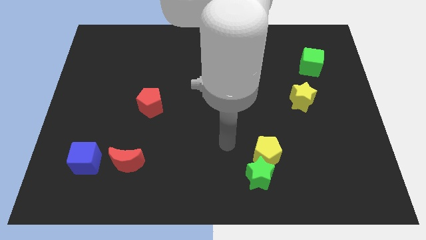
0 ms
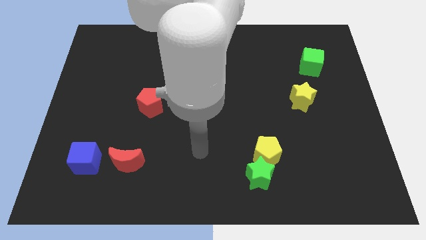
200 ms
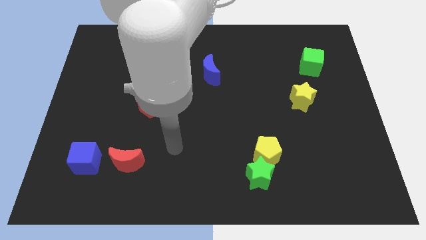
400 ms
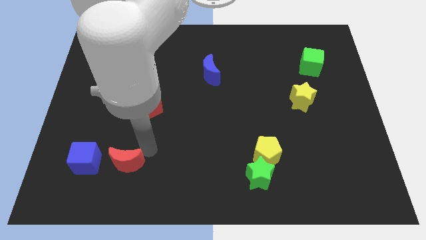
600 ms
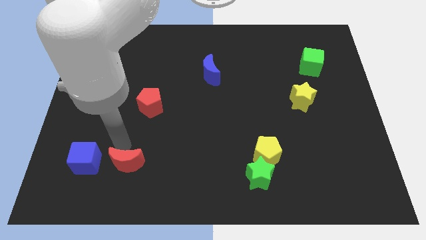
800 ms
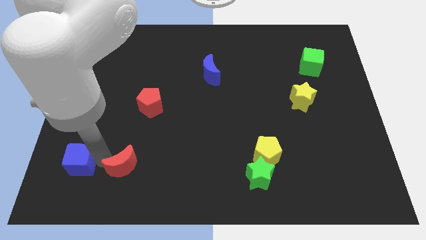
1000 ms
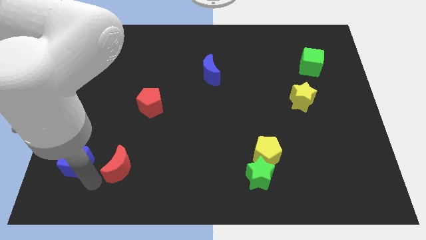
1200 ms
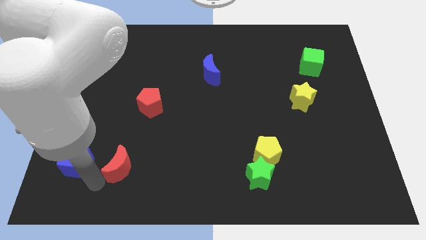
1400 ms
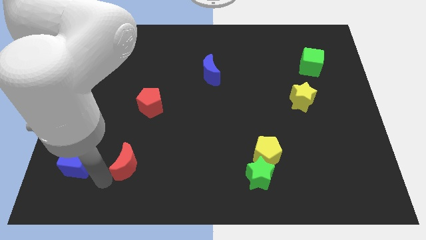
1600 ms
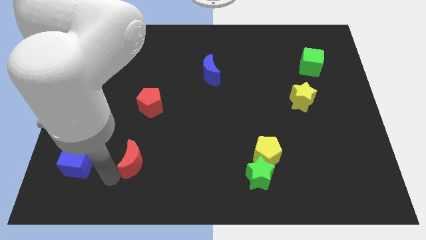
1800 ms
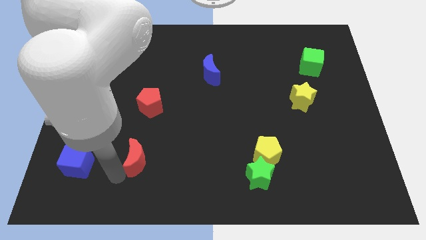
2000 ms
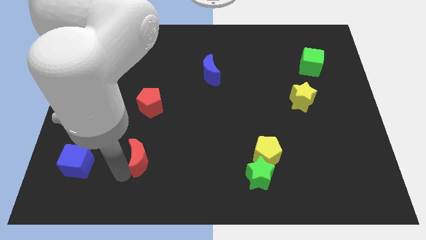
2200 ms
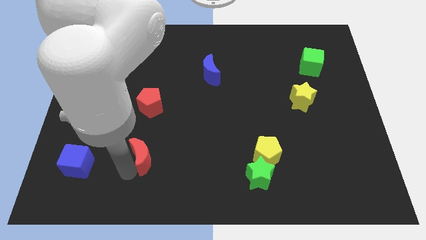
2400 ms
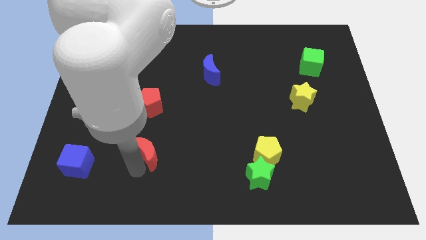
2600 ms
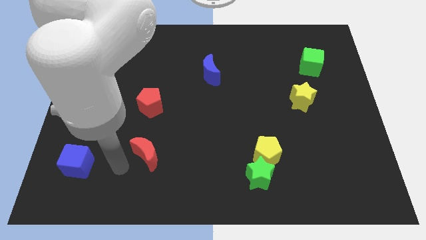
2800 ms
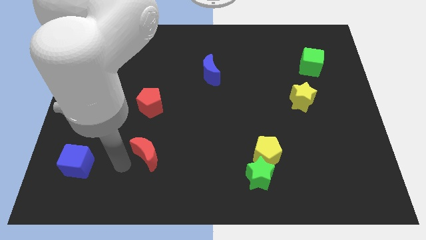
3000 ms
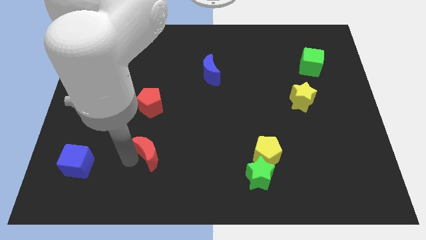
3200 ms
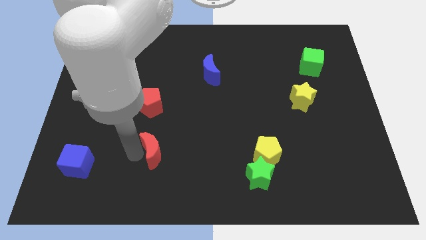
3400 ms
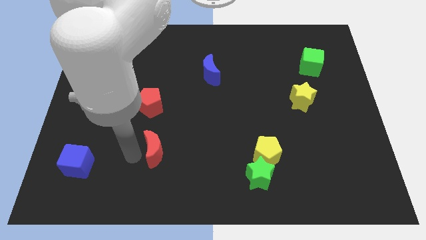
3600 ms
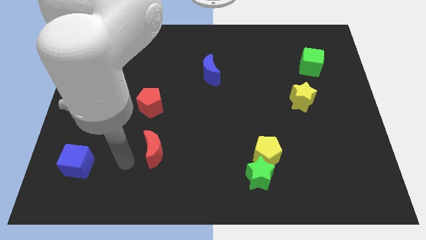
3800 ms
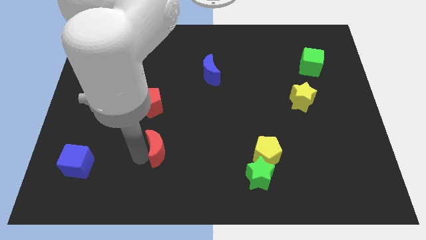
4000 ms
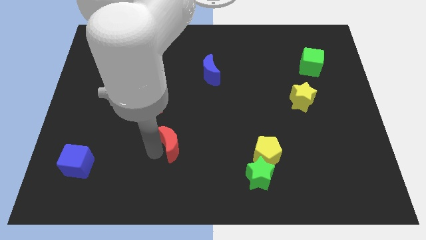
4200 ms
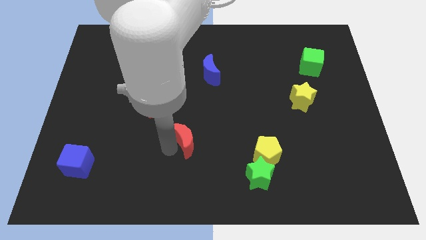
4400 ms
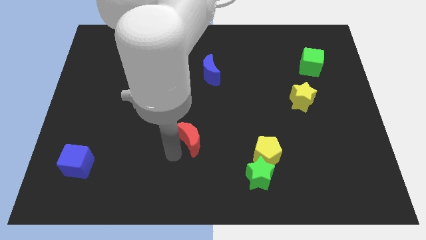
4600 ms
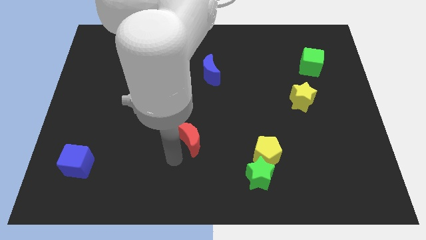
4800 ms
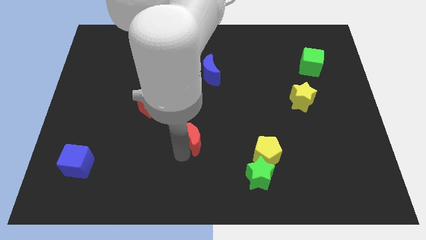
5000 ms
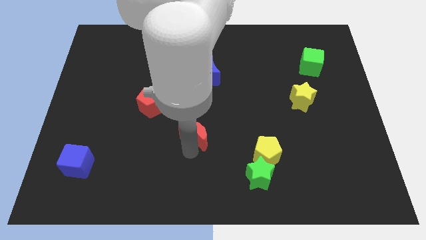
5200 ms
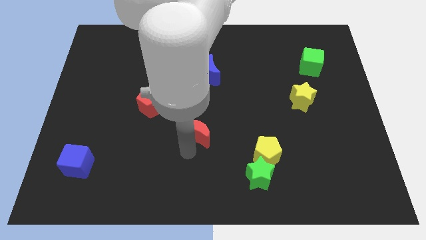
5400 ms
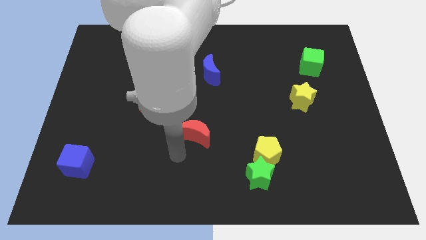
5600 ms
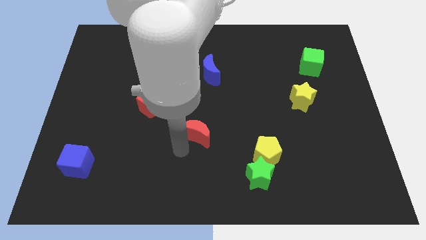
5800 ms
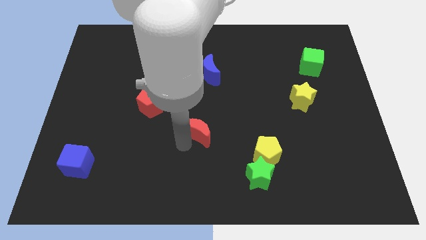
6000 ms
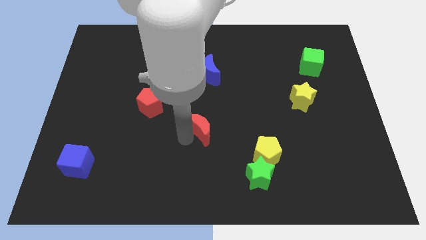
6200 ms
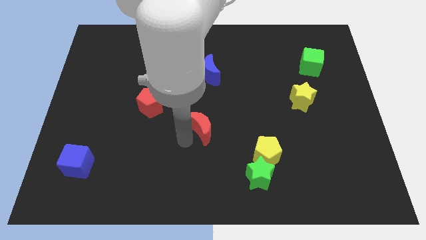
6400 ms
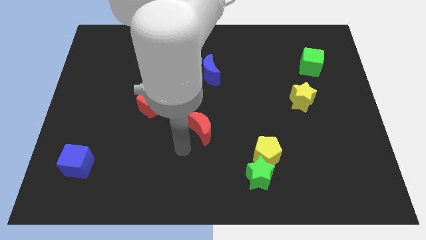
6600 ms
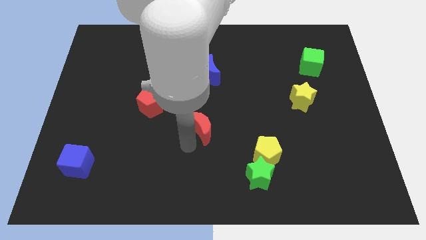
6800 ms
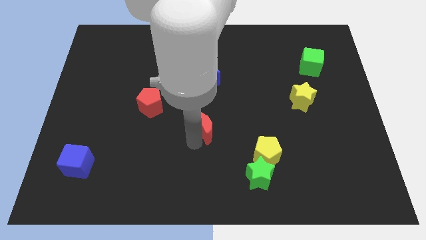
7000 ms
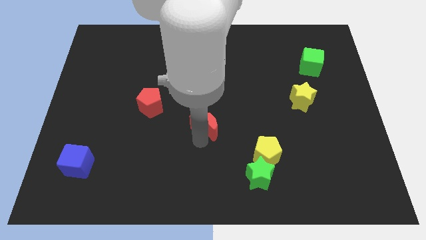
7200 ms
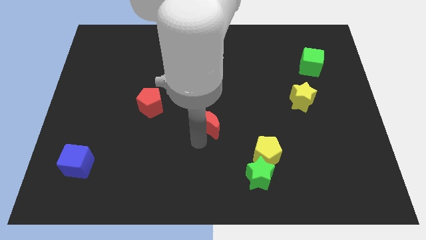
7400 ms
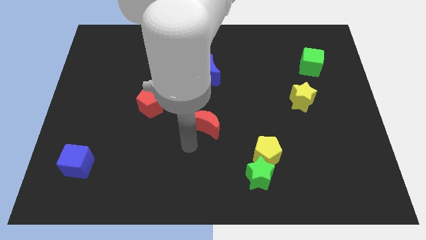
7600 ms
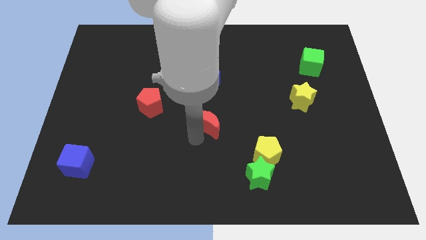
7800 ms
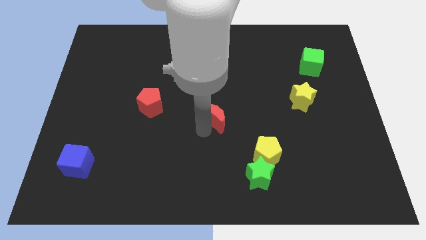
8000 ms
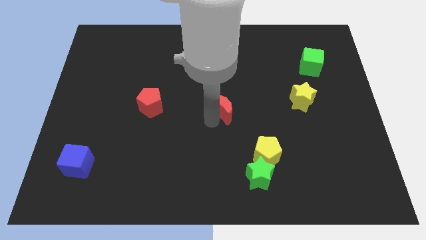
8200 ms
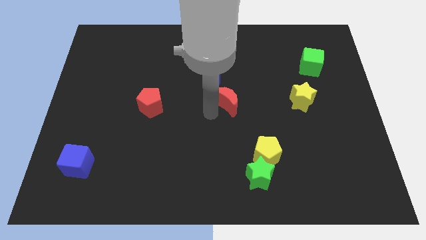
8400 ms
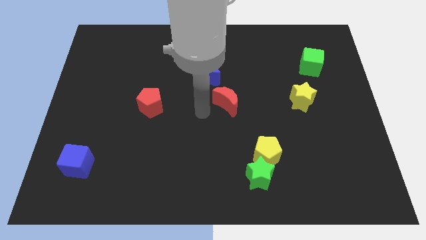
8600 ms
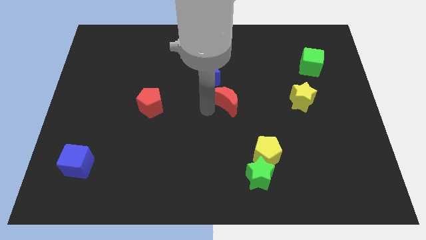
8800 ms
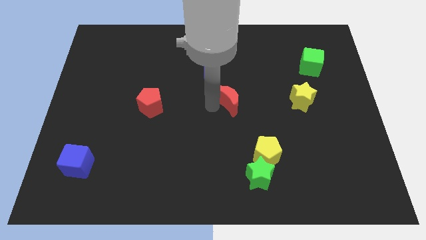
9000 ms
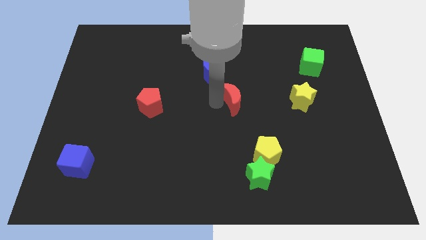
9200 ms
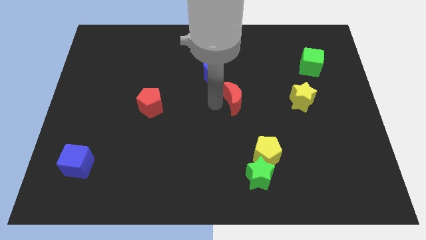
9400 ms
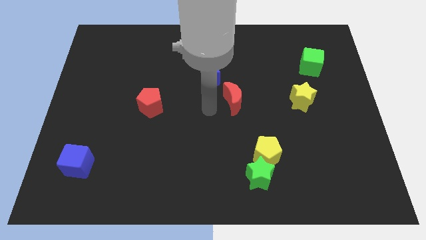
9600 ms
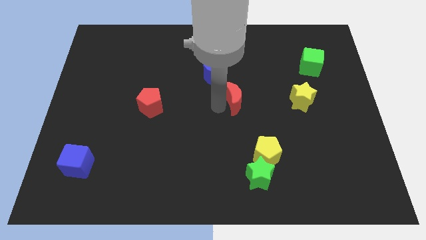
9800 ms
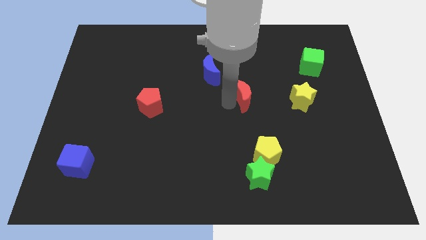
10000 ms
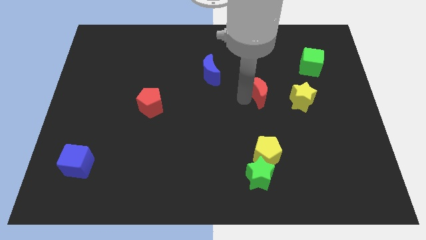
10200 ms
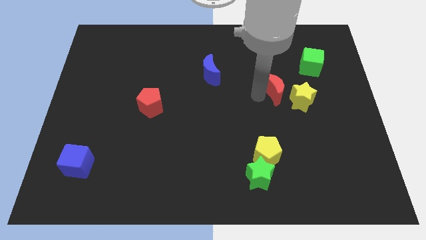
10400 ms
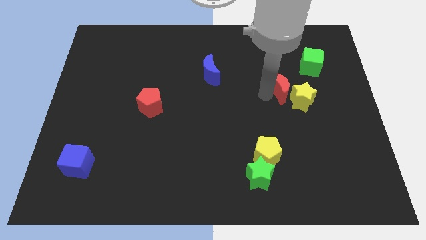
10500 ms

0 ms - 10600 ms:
slide the red moon to the bottom left side of the green cube

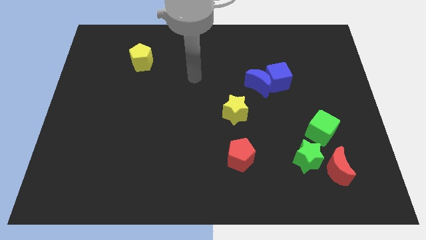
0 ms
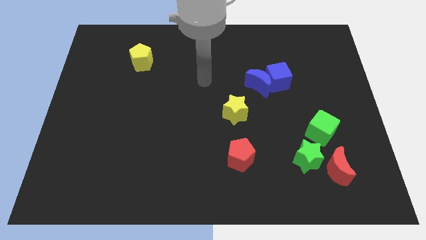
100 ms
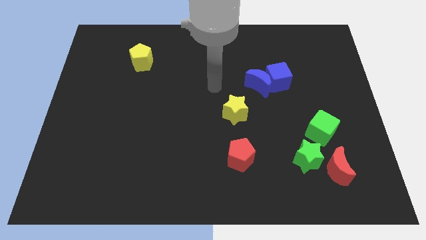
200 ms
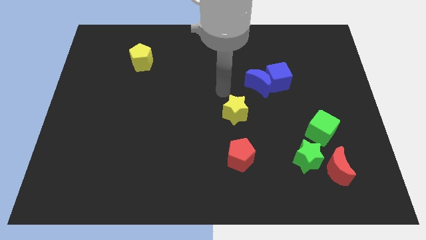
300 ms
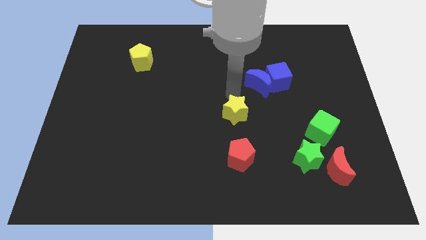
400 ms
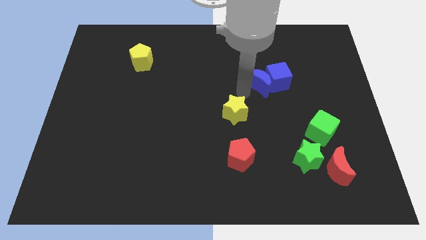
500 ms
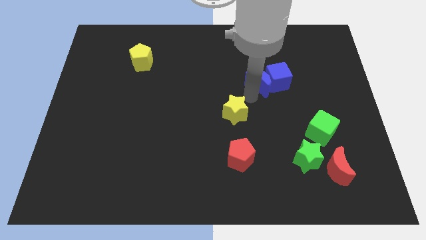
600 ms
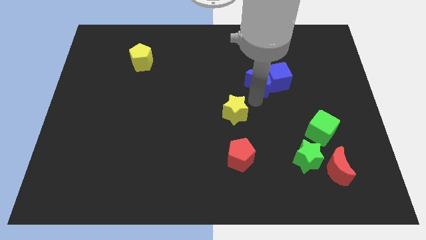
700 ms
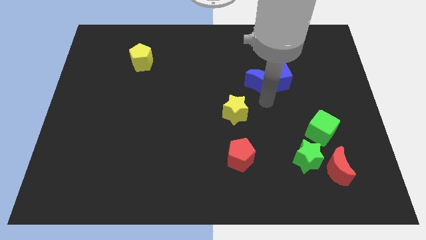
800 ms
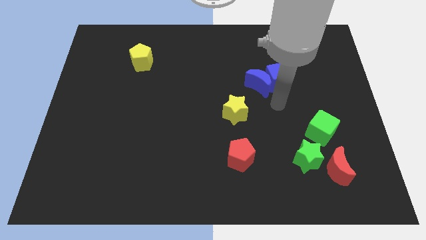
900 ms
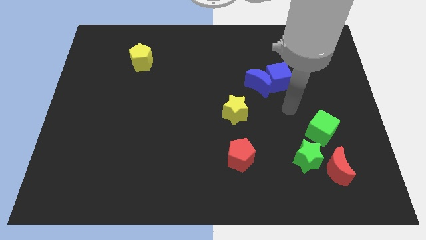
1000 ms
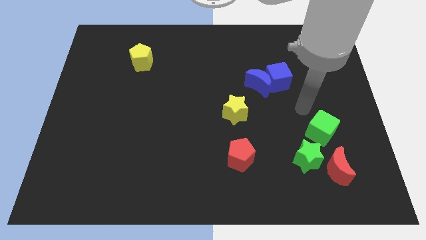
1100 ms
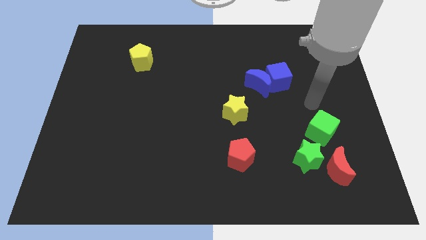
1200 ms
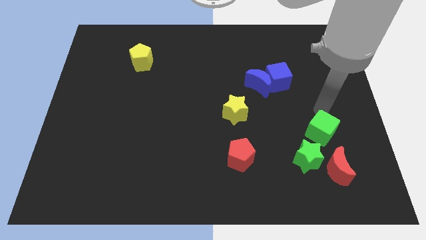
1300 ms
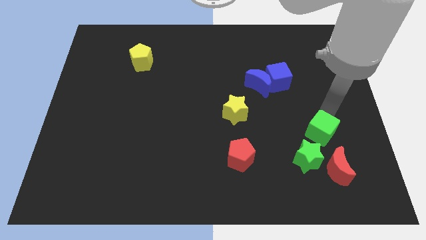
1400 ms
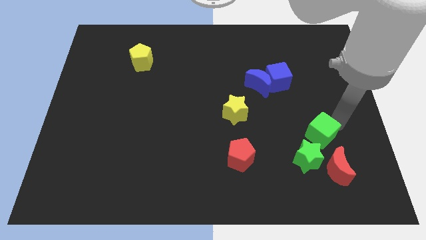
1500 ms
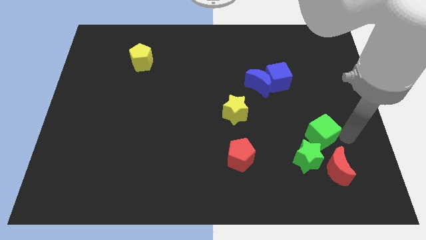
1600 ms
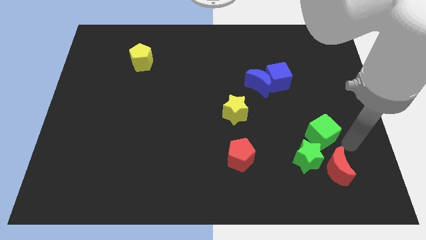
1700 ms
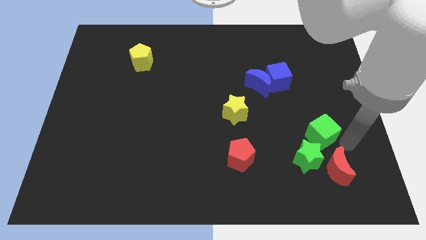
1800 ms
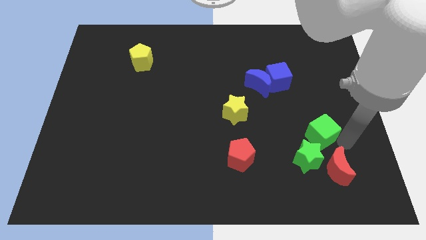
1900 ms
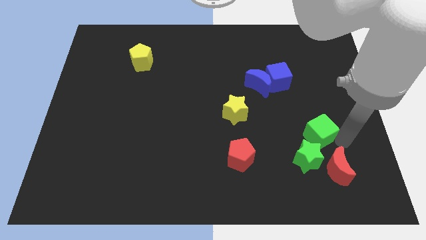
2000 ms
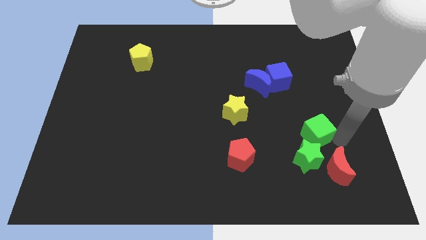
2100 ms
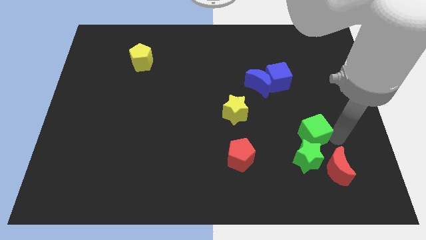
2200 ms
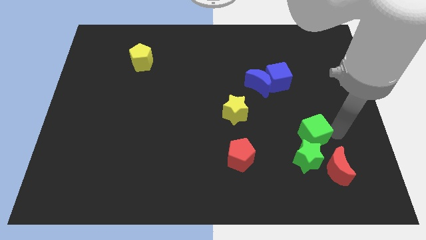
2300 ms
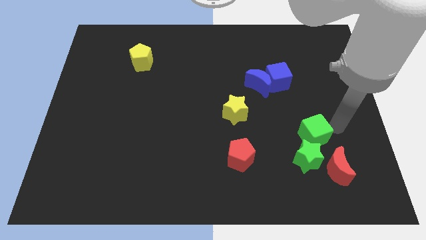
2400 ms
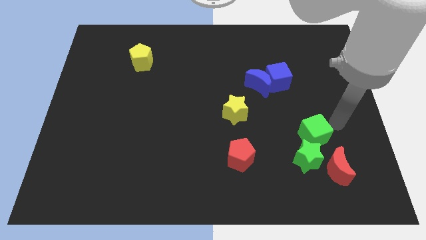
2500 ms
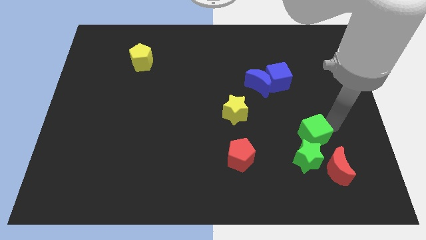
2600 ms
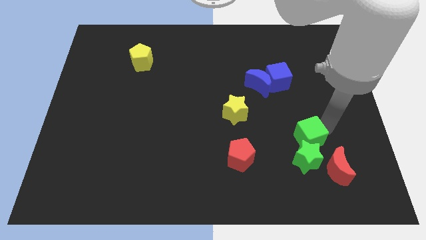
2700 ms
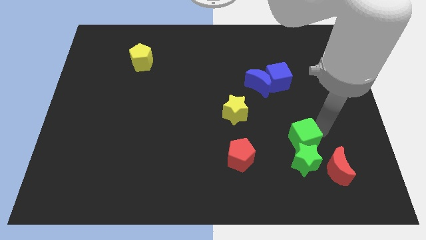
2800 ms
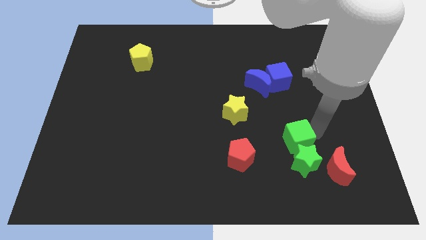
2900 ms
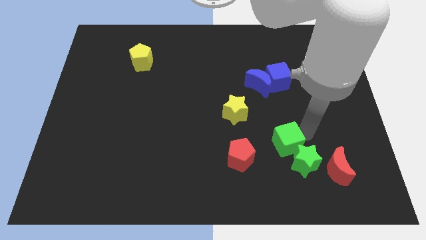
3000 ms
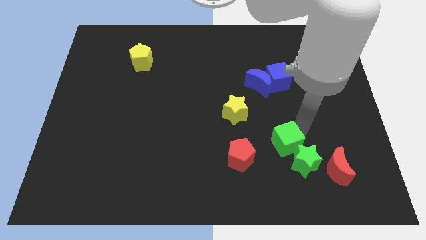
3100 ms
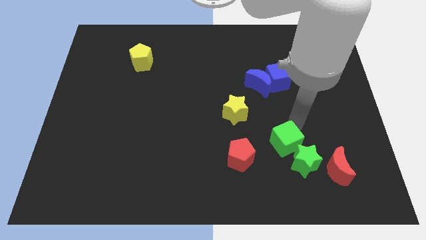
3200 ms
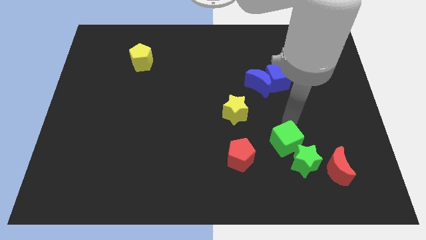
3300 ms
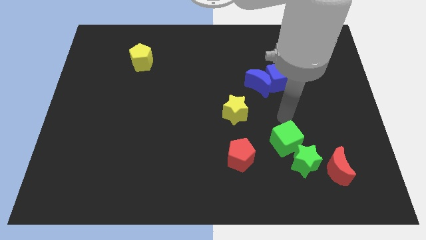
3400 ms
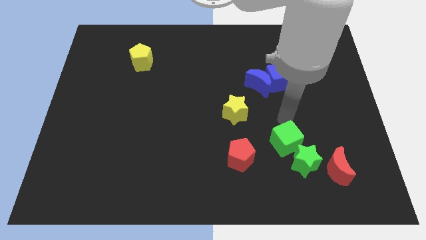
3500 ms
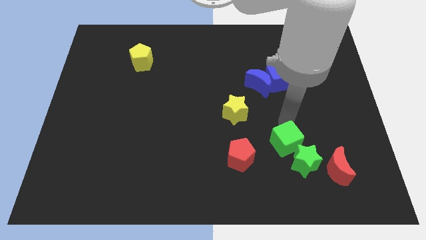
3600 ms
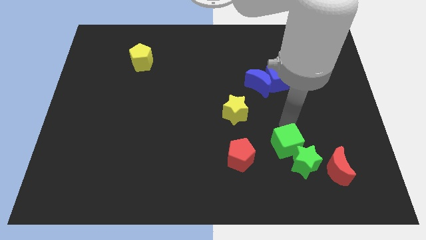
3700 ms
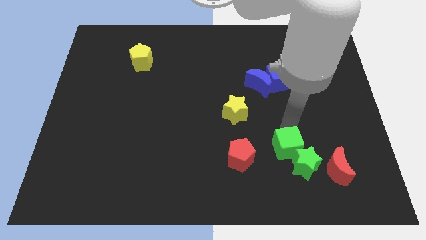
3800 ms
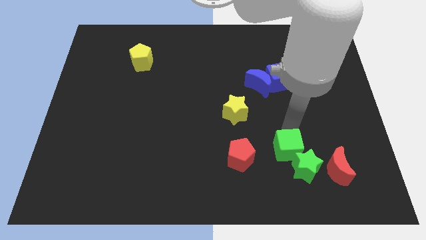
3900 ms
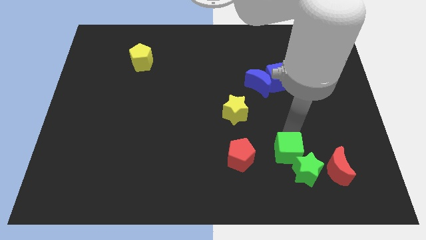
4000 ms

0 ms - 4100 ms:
put the green cube to the left side of the red moon
